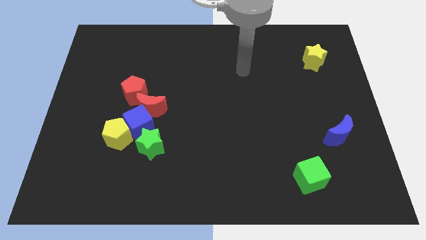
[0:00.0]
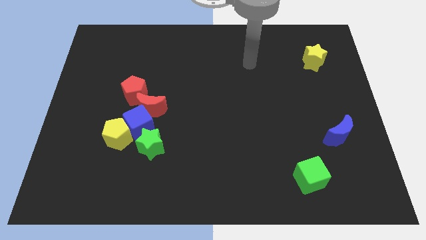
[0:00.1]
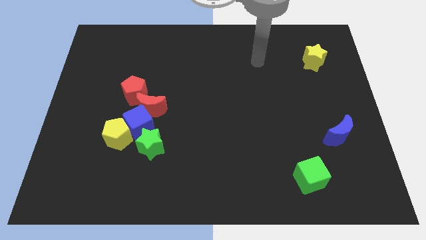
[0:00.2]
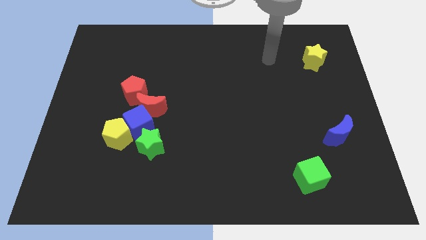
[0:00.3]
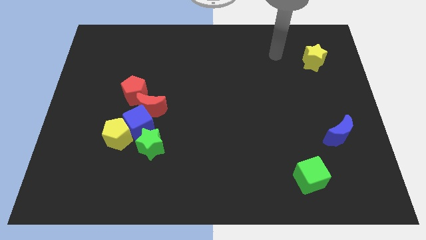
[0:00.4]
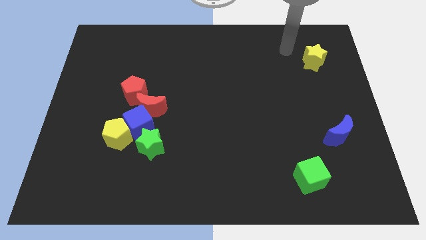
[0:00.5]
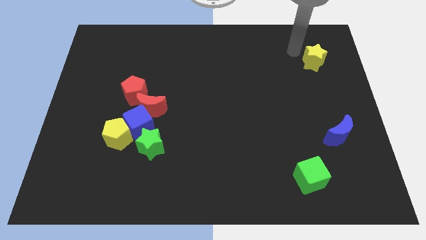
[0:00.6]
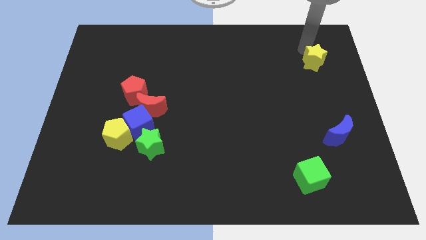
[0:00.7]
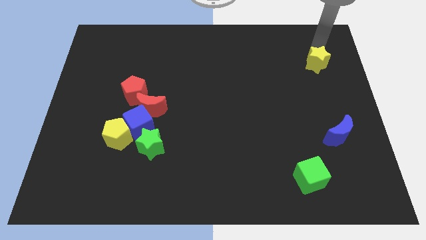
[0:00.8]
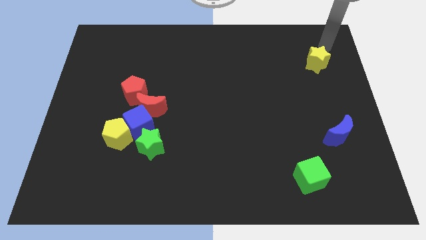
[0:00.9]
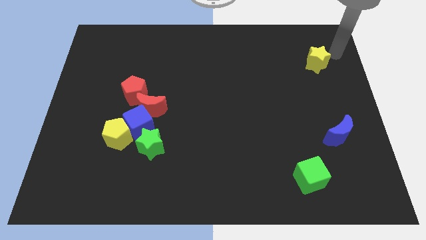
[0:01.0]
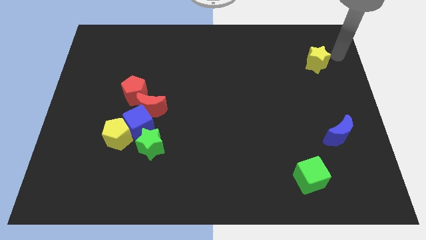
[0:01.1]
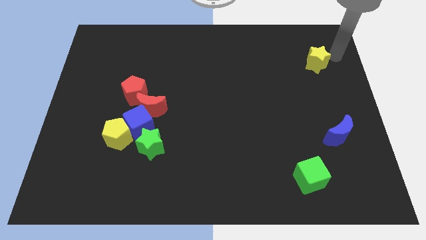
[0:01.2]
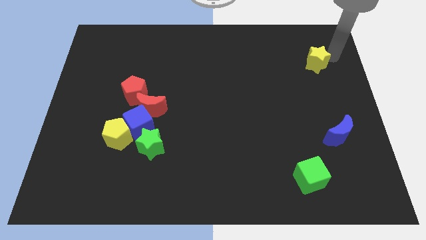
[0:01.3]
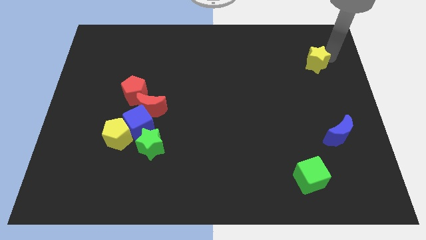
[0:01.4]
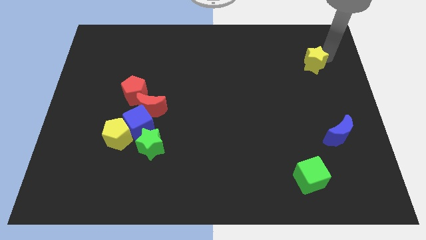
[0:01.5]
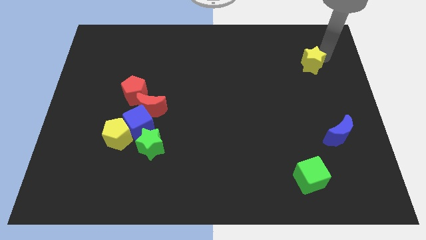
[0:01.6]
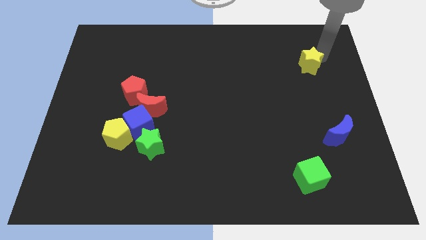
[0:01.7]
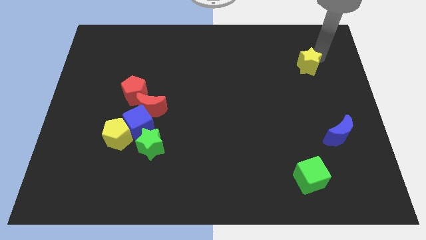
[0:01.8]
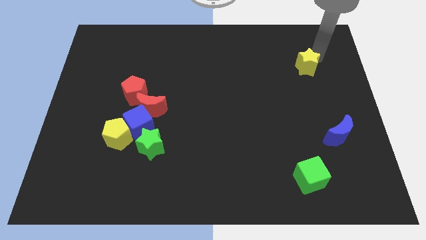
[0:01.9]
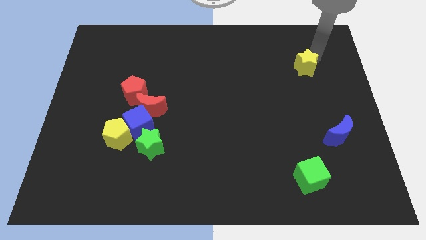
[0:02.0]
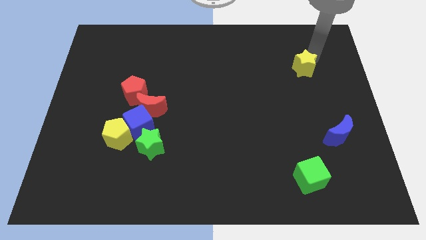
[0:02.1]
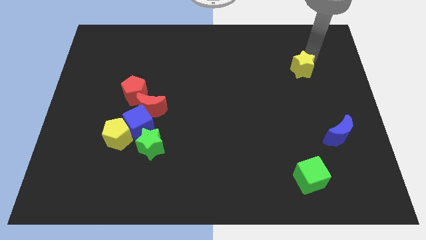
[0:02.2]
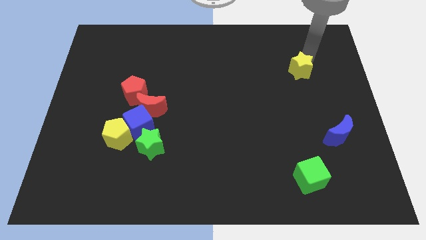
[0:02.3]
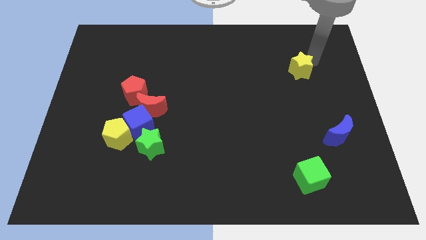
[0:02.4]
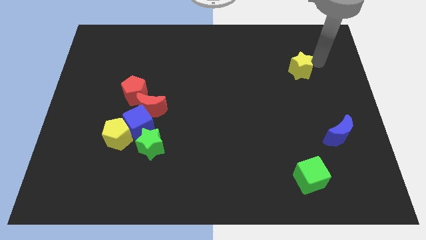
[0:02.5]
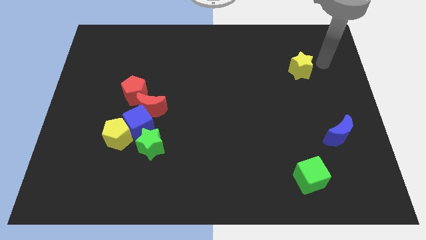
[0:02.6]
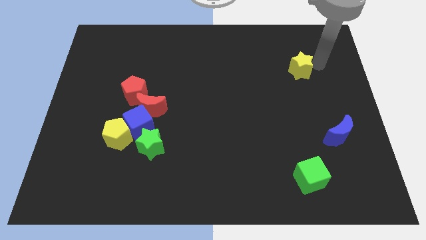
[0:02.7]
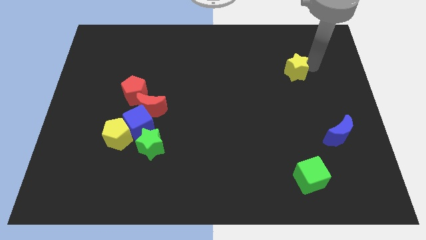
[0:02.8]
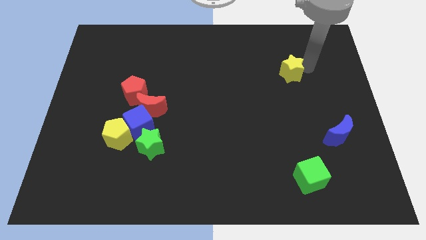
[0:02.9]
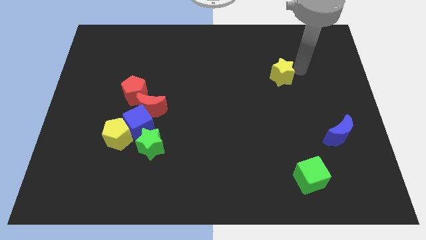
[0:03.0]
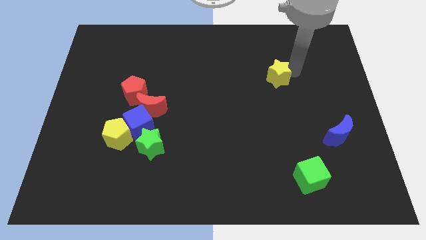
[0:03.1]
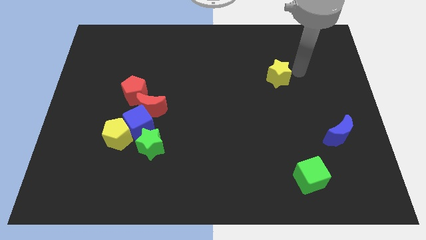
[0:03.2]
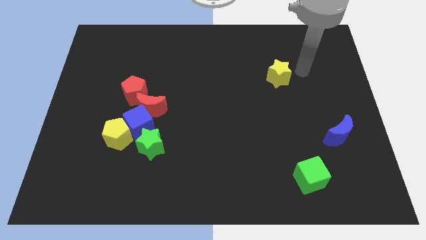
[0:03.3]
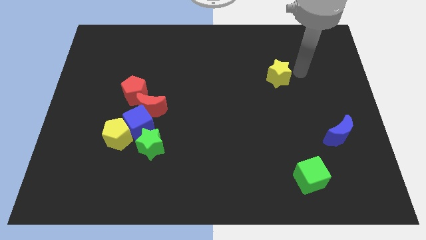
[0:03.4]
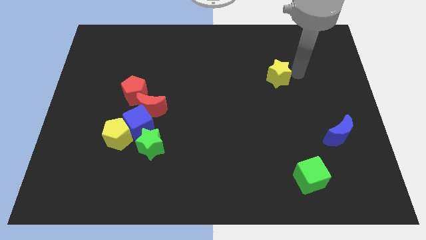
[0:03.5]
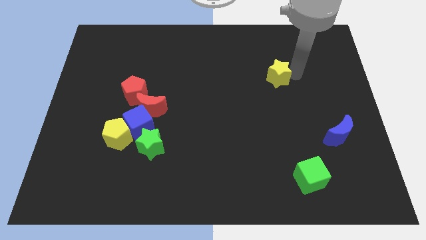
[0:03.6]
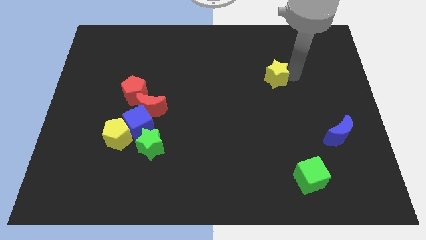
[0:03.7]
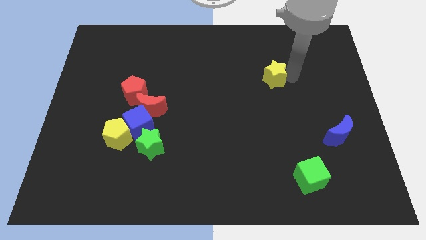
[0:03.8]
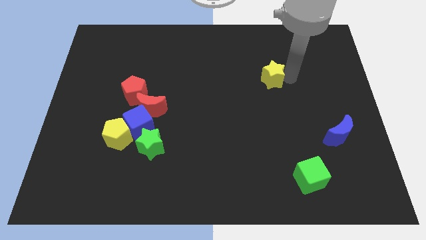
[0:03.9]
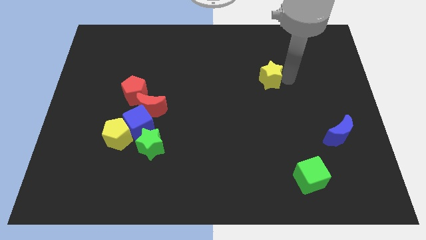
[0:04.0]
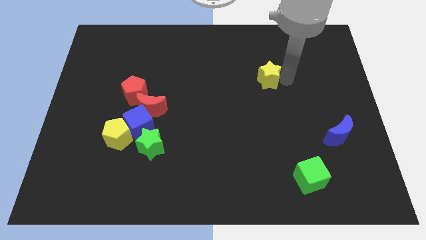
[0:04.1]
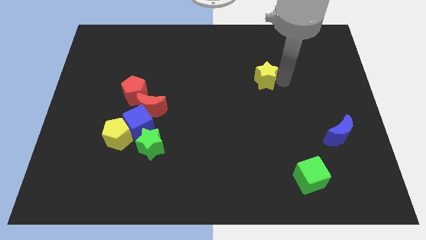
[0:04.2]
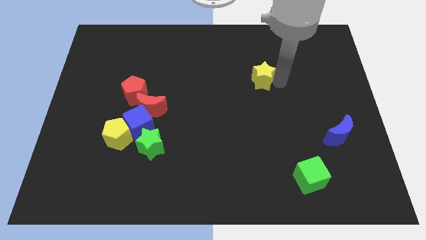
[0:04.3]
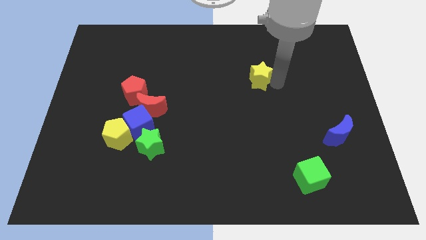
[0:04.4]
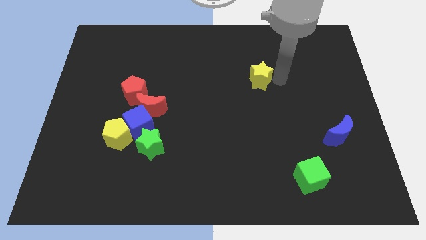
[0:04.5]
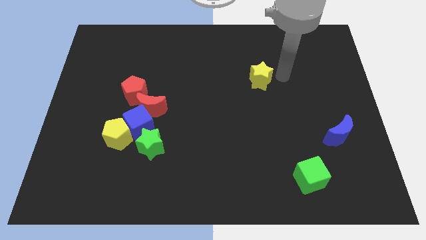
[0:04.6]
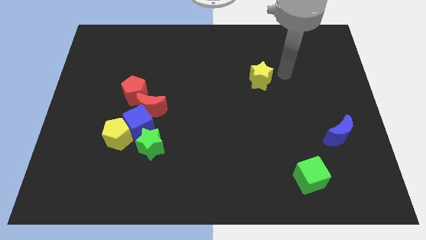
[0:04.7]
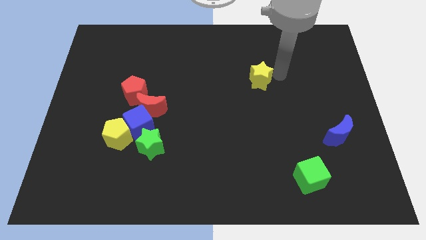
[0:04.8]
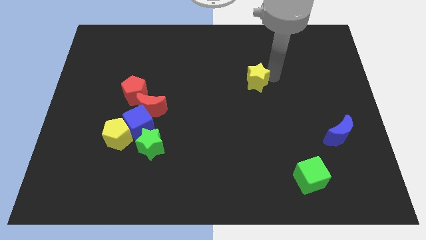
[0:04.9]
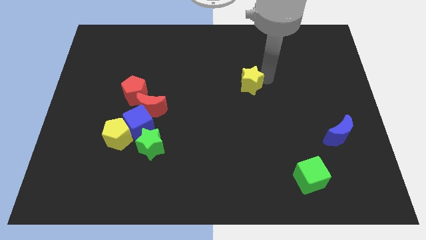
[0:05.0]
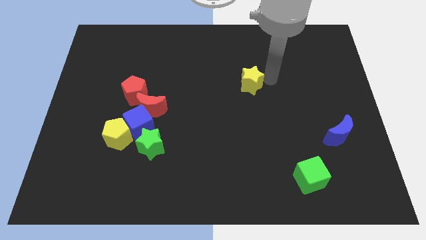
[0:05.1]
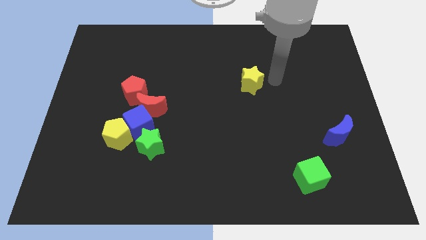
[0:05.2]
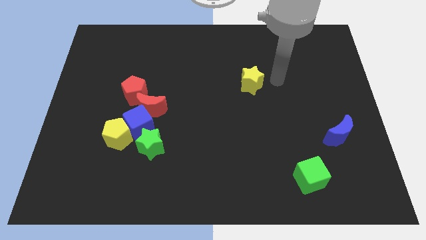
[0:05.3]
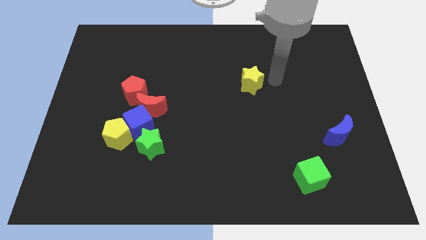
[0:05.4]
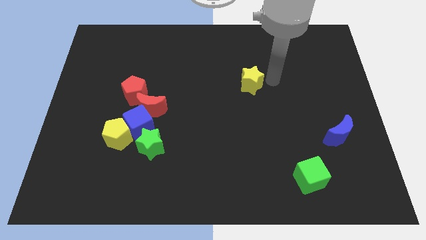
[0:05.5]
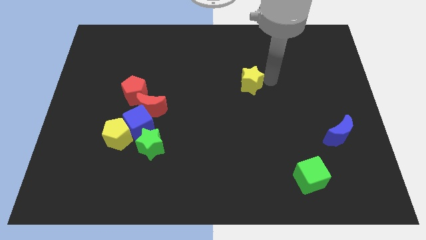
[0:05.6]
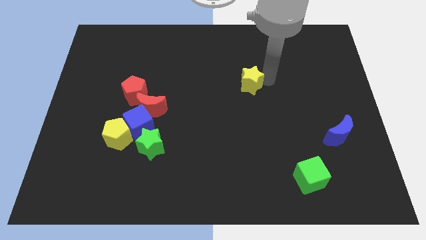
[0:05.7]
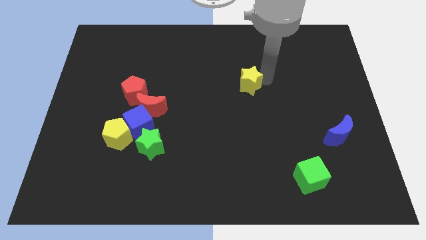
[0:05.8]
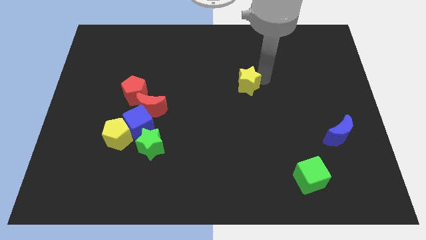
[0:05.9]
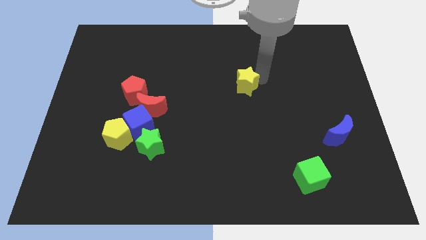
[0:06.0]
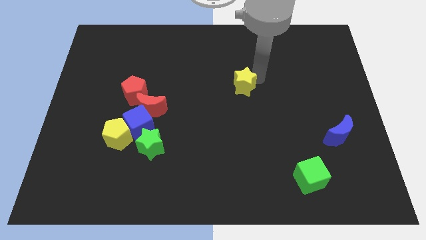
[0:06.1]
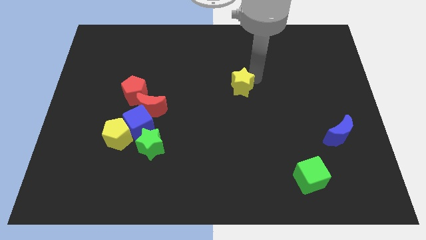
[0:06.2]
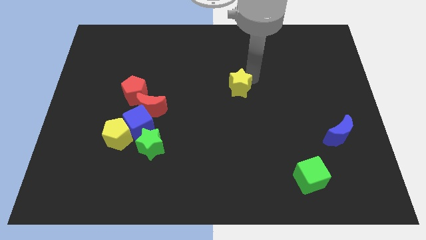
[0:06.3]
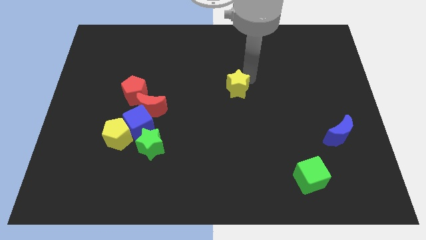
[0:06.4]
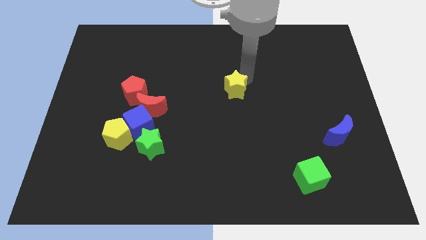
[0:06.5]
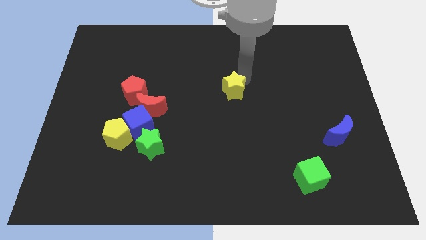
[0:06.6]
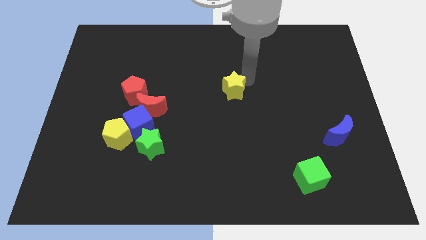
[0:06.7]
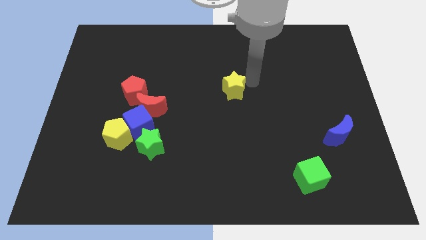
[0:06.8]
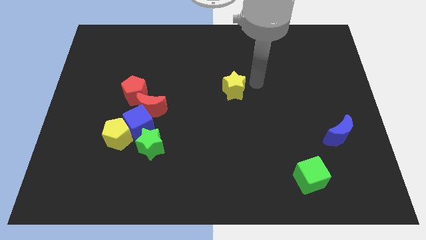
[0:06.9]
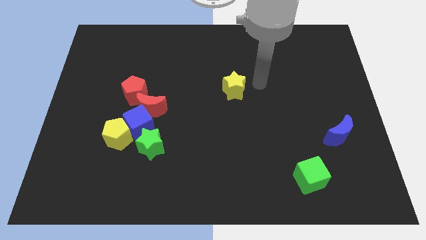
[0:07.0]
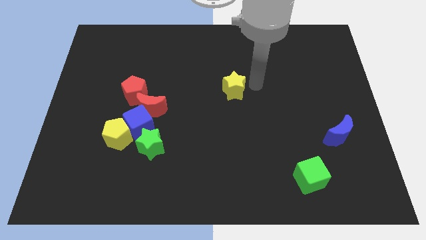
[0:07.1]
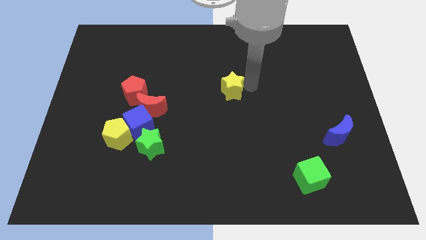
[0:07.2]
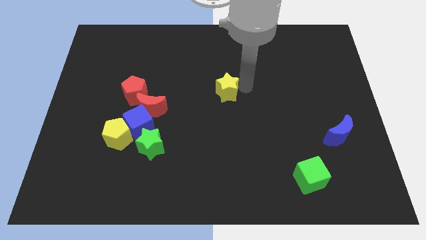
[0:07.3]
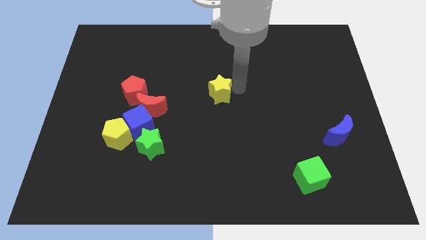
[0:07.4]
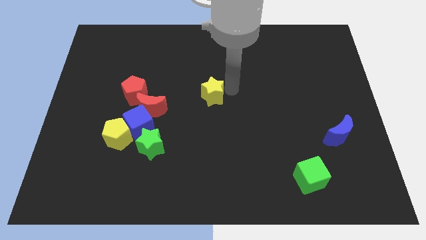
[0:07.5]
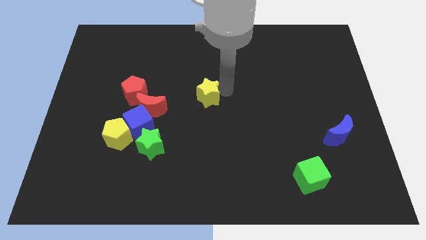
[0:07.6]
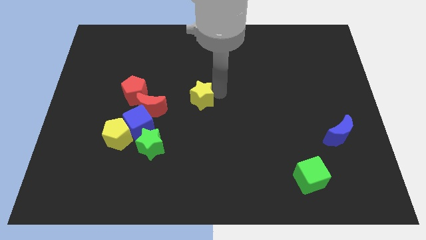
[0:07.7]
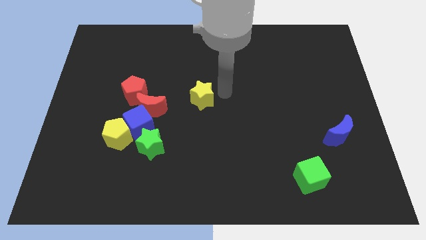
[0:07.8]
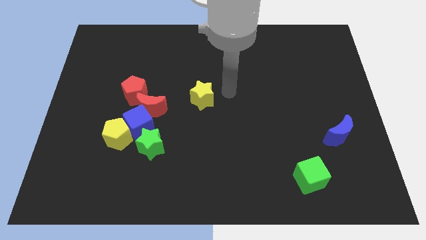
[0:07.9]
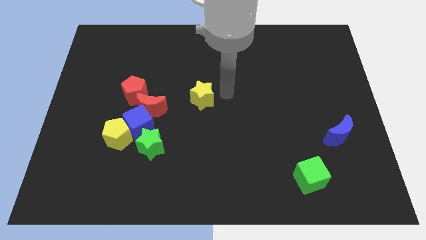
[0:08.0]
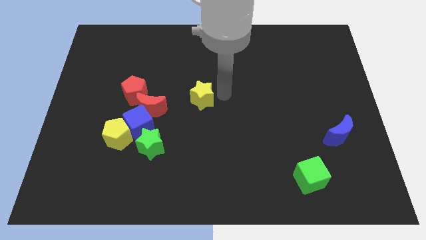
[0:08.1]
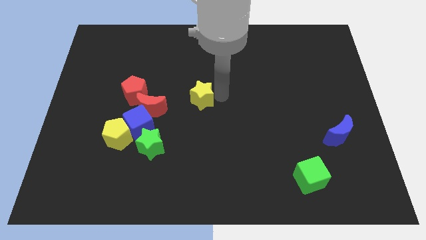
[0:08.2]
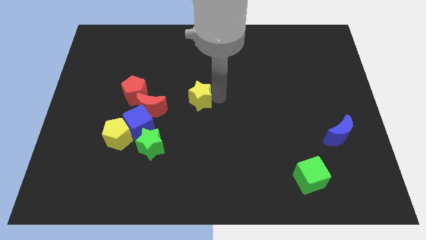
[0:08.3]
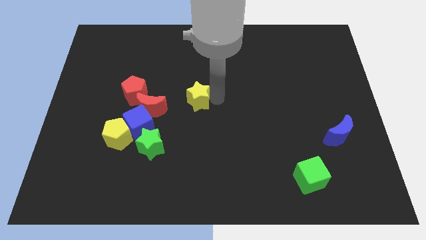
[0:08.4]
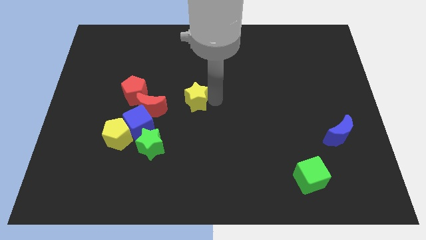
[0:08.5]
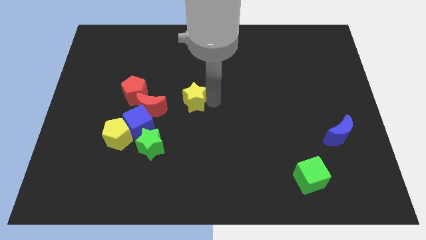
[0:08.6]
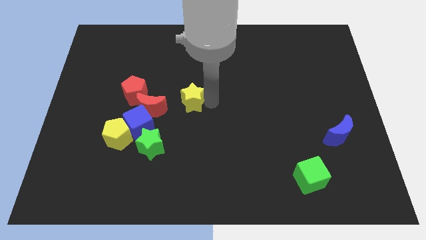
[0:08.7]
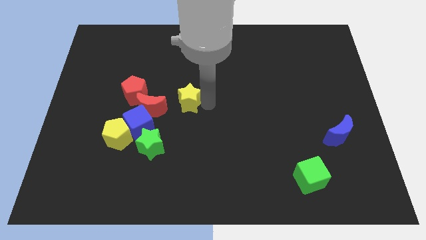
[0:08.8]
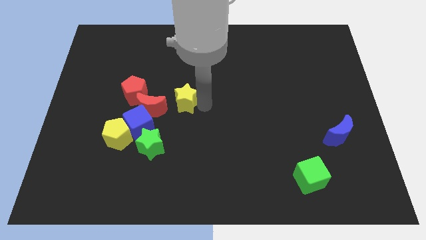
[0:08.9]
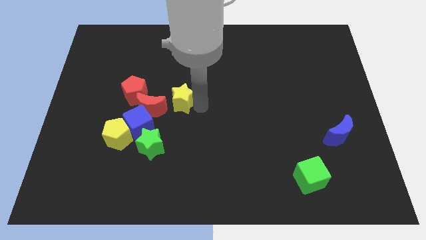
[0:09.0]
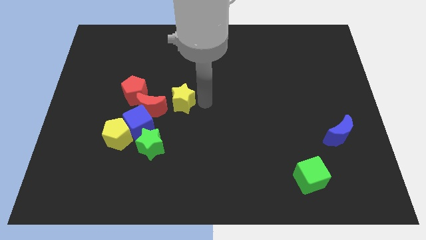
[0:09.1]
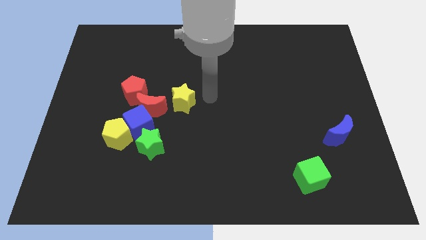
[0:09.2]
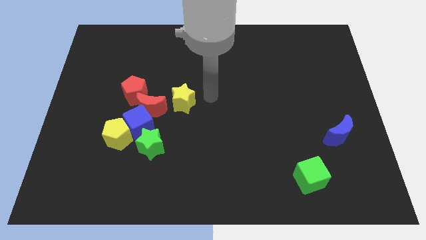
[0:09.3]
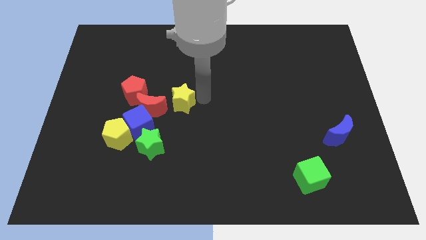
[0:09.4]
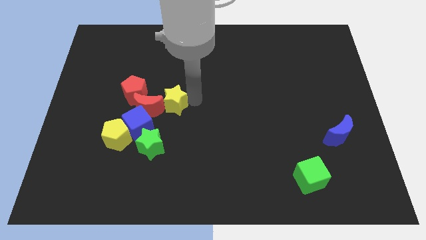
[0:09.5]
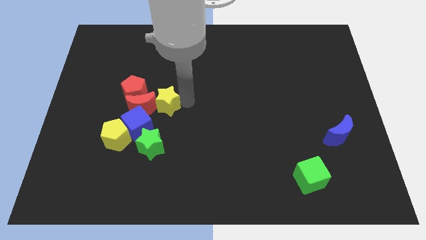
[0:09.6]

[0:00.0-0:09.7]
move the yellow star next to the red moon
